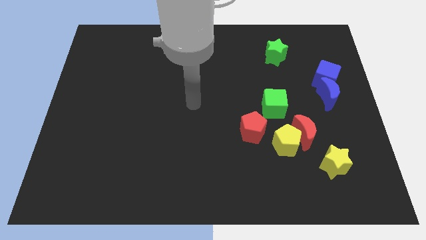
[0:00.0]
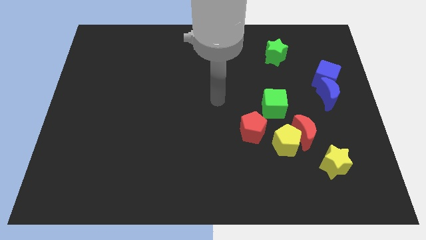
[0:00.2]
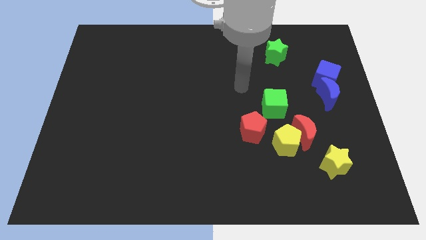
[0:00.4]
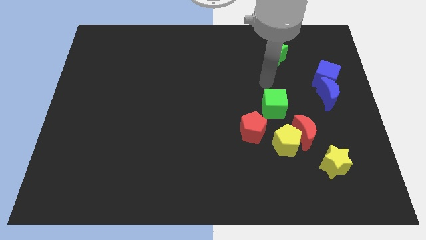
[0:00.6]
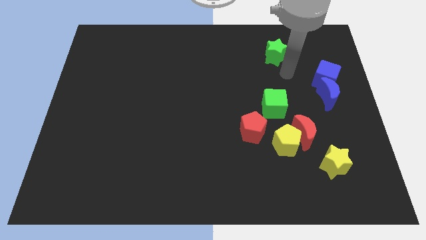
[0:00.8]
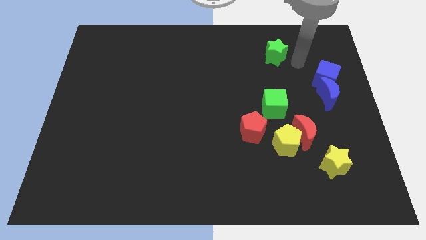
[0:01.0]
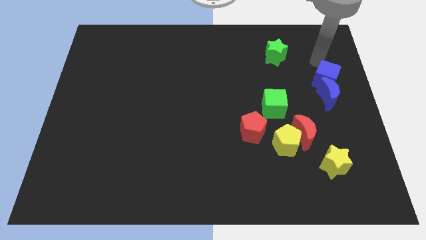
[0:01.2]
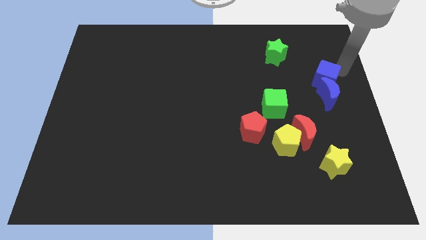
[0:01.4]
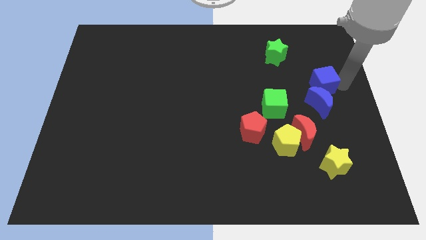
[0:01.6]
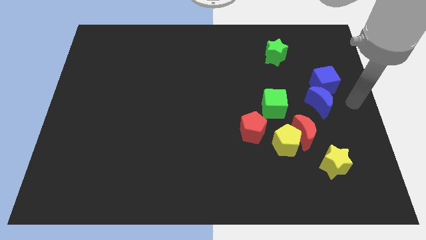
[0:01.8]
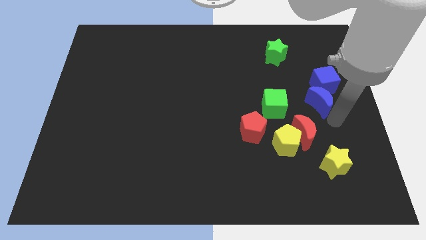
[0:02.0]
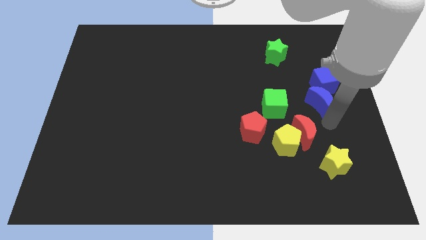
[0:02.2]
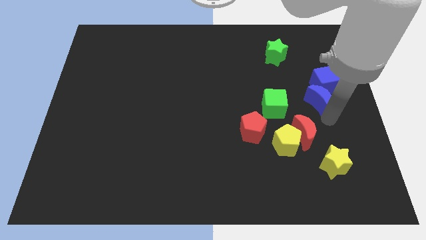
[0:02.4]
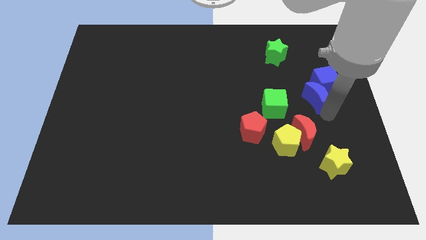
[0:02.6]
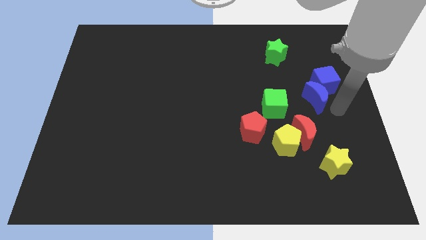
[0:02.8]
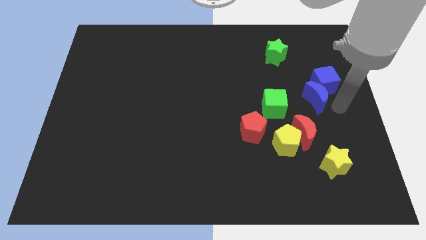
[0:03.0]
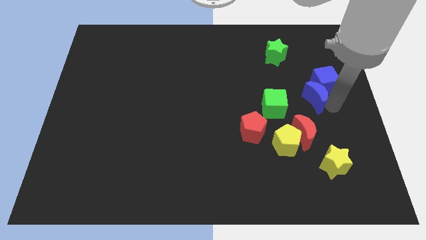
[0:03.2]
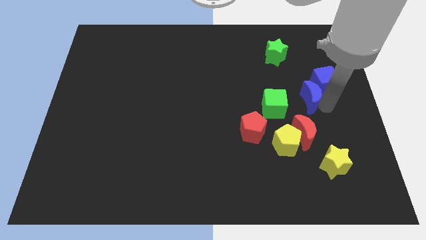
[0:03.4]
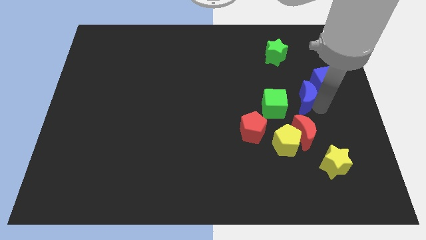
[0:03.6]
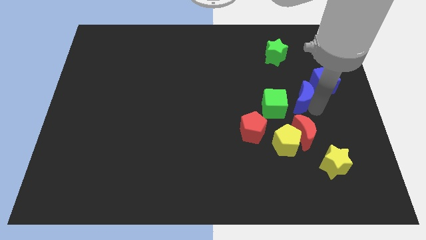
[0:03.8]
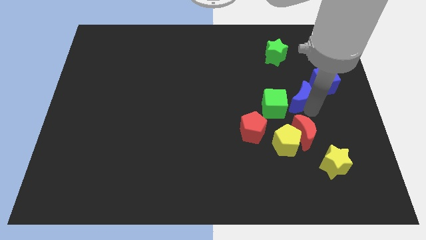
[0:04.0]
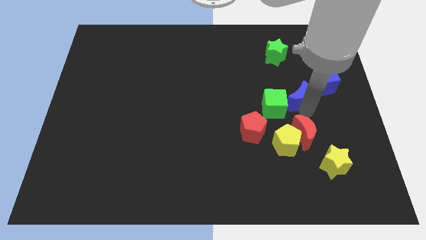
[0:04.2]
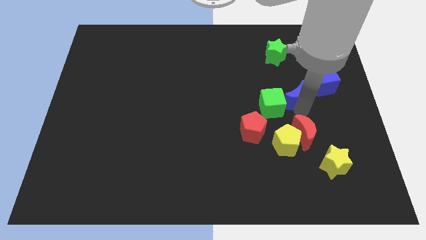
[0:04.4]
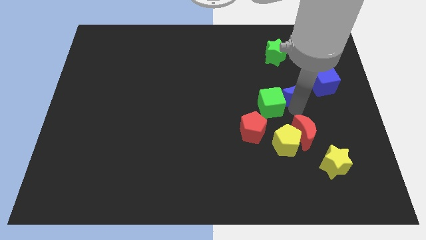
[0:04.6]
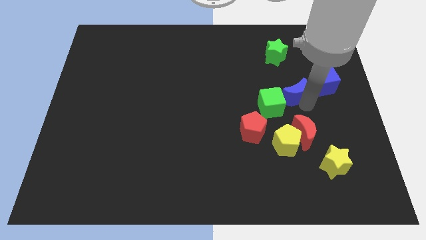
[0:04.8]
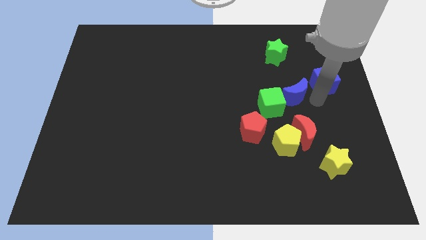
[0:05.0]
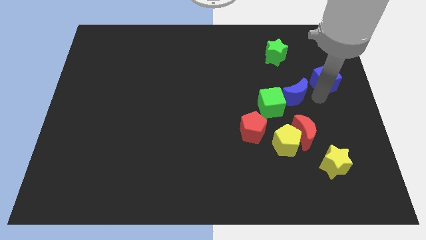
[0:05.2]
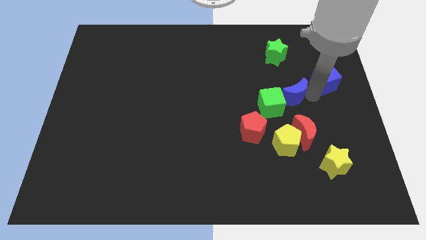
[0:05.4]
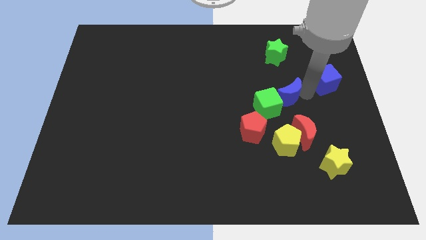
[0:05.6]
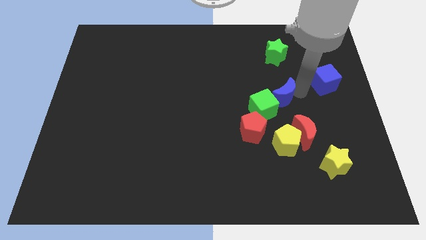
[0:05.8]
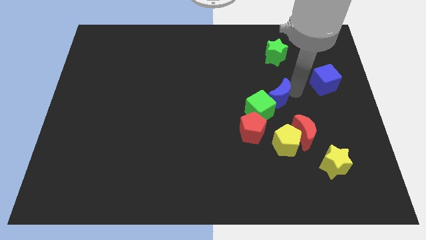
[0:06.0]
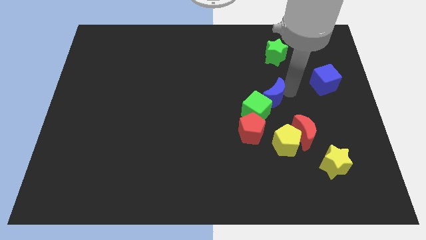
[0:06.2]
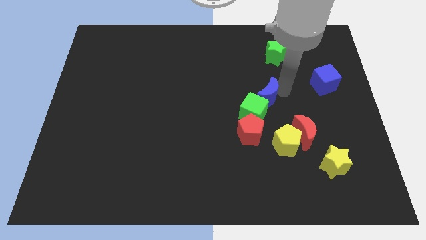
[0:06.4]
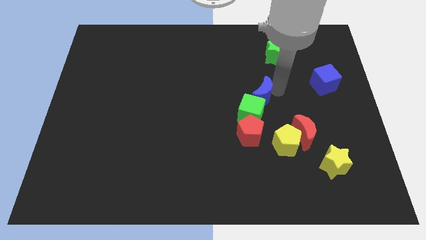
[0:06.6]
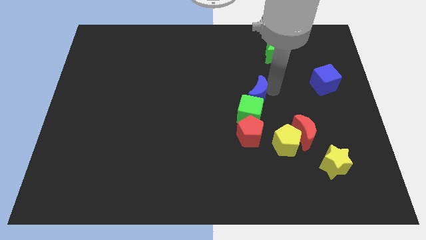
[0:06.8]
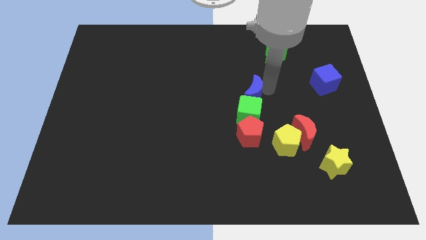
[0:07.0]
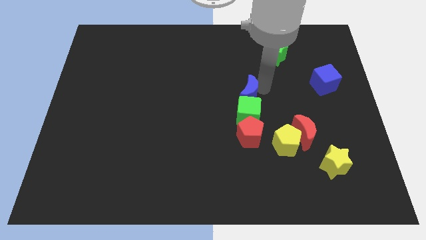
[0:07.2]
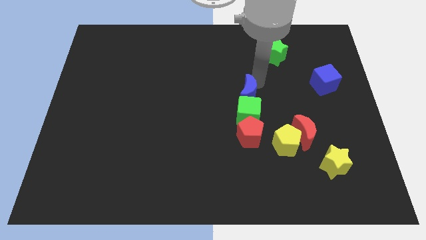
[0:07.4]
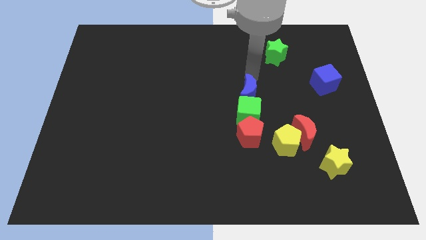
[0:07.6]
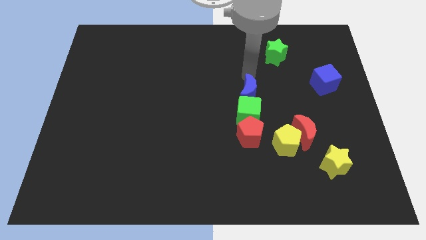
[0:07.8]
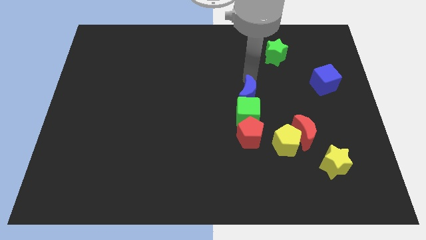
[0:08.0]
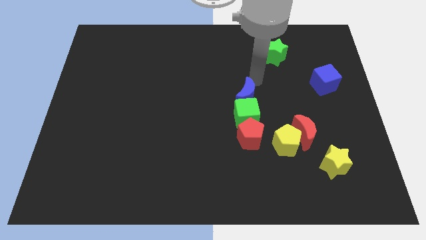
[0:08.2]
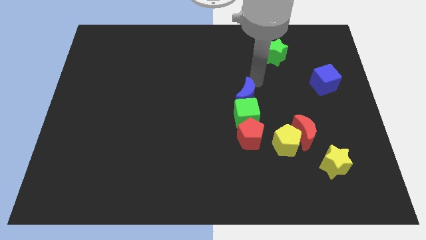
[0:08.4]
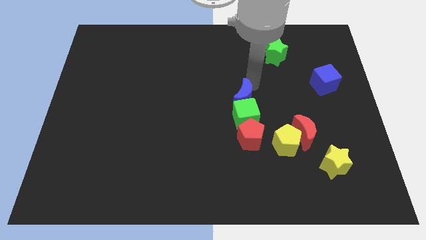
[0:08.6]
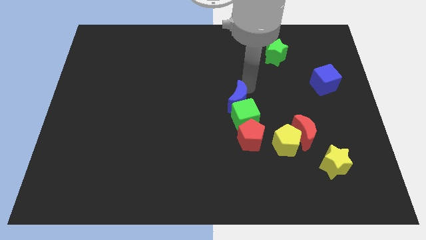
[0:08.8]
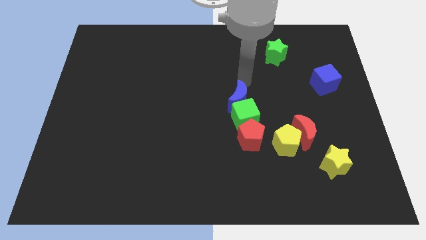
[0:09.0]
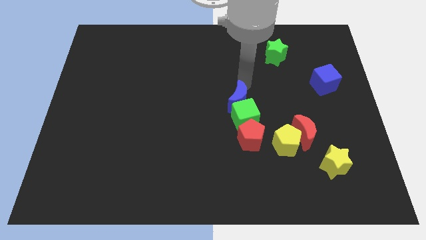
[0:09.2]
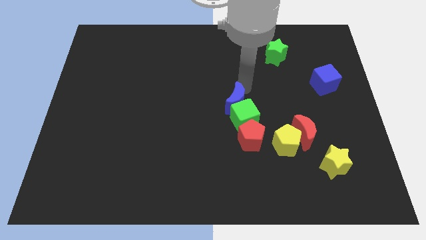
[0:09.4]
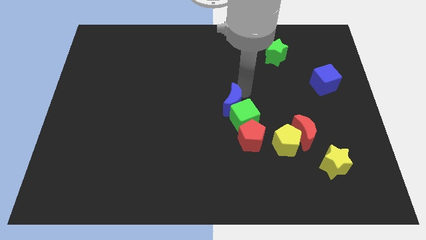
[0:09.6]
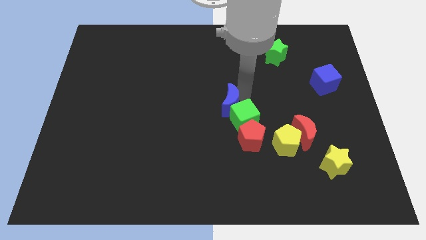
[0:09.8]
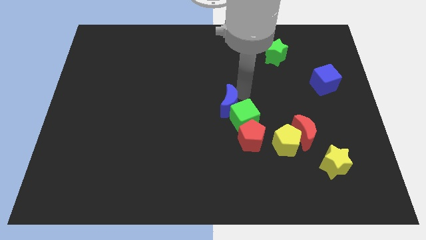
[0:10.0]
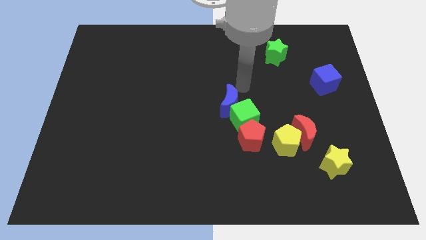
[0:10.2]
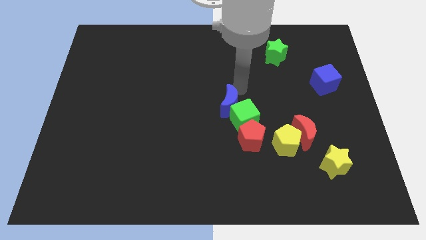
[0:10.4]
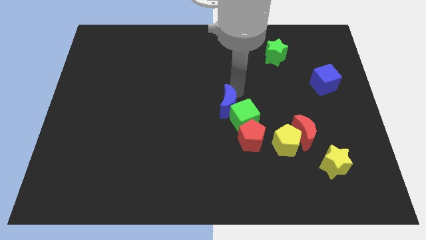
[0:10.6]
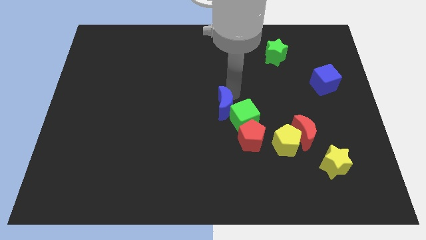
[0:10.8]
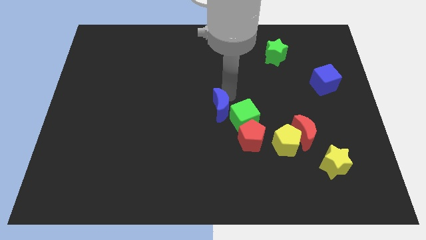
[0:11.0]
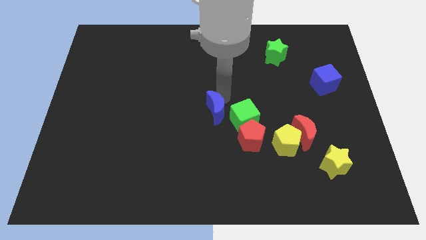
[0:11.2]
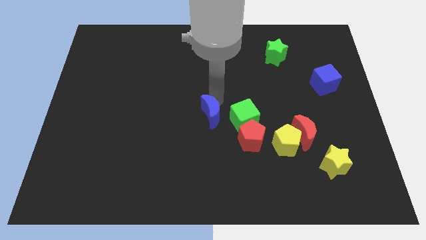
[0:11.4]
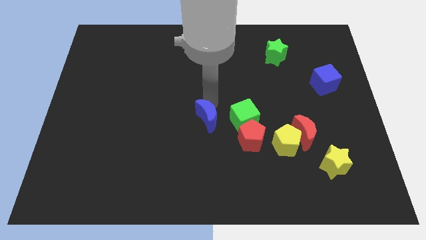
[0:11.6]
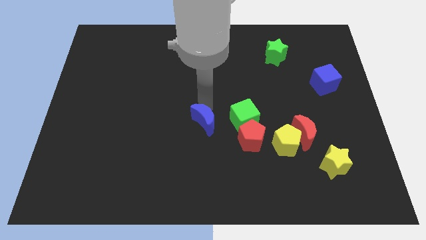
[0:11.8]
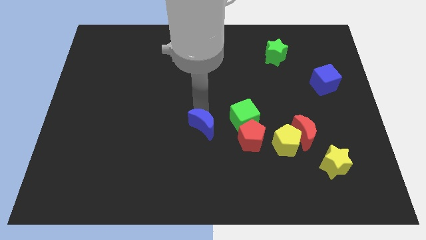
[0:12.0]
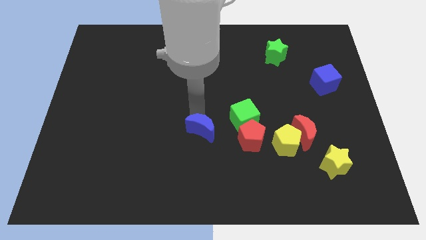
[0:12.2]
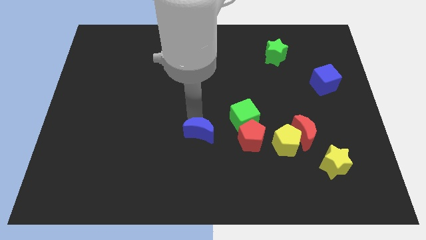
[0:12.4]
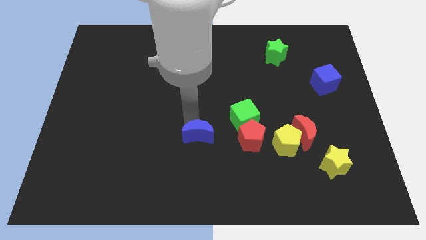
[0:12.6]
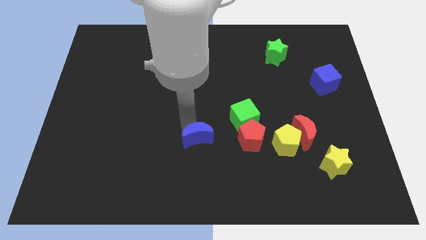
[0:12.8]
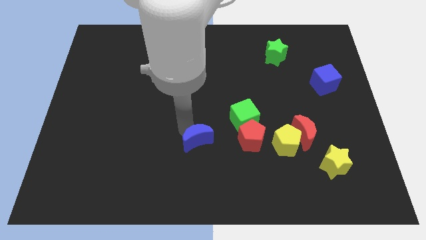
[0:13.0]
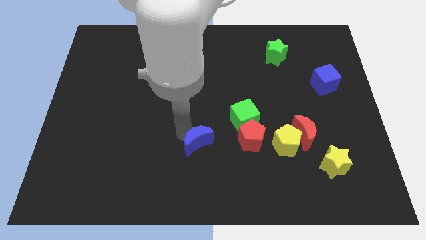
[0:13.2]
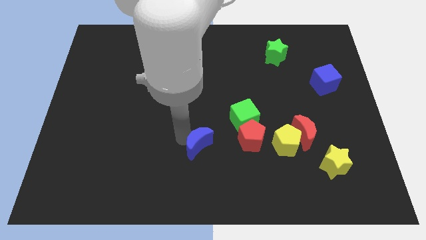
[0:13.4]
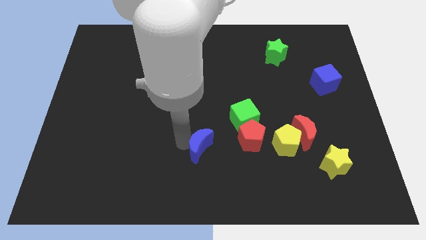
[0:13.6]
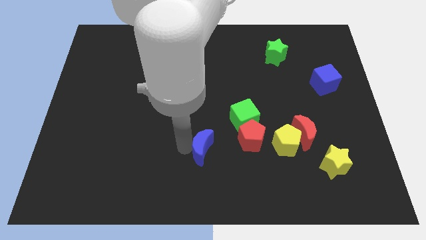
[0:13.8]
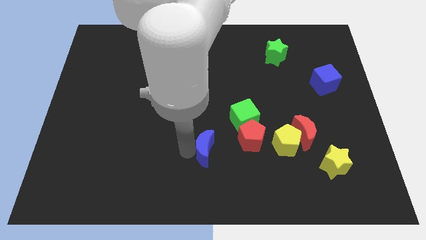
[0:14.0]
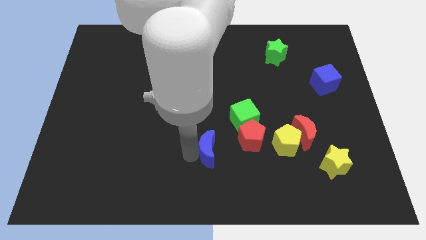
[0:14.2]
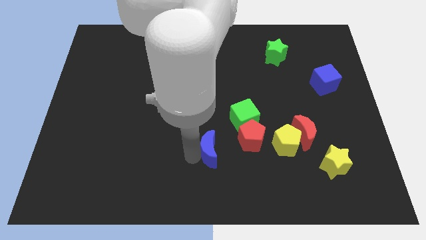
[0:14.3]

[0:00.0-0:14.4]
move the blue moon to the bottom

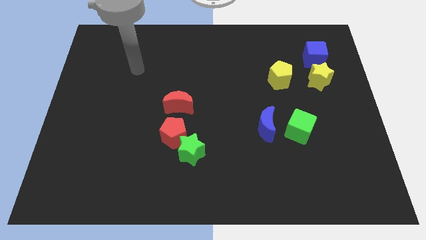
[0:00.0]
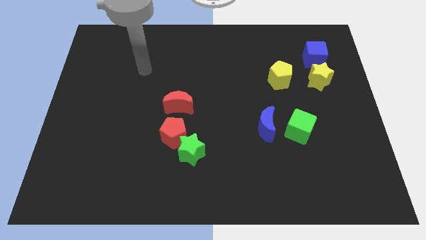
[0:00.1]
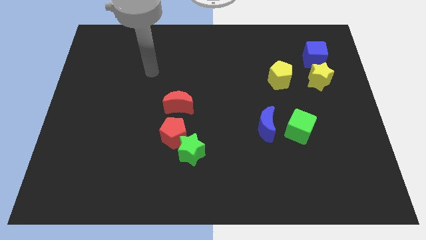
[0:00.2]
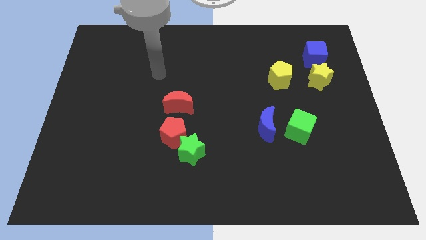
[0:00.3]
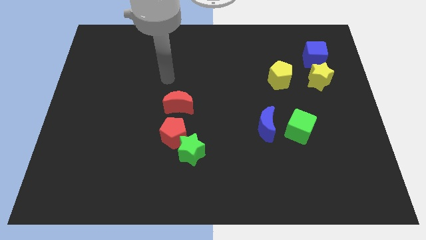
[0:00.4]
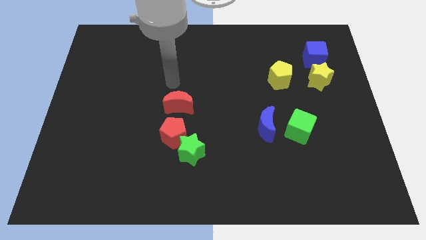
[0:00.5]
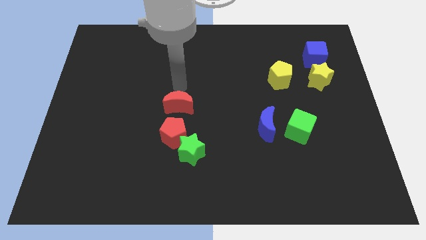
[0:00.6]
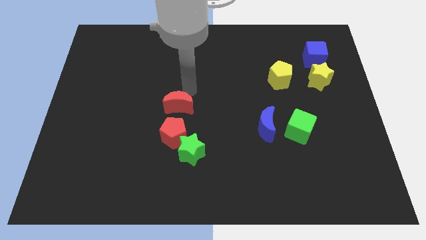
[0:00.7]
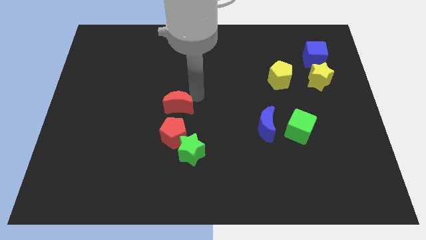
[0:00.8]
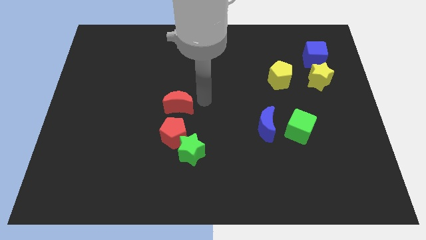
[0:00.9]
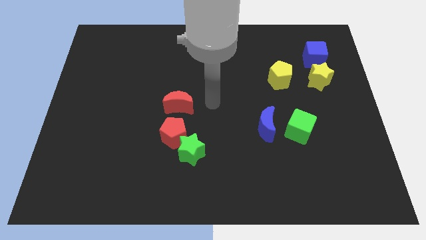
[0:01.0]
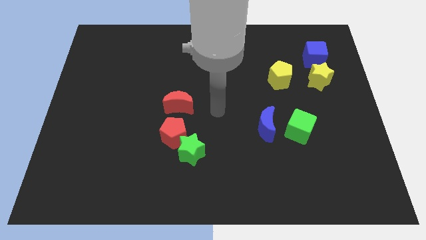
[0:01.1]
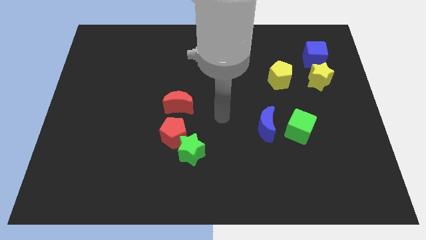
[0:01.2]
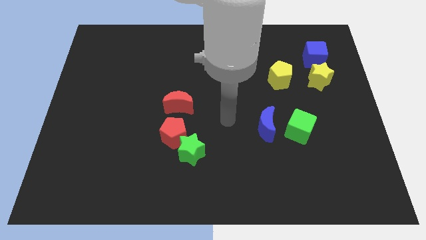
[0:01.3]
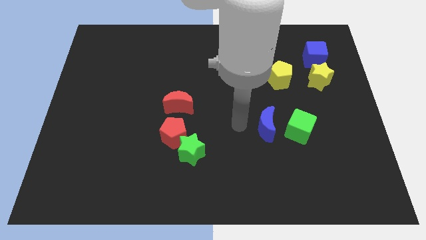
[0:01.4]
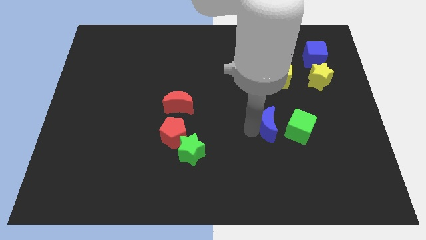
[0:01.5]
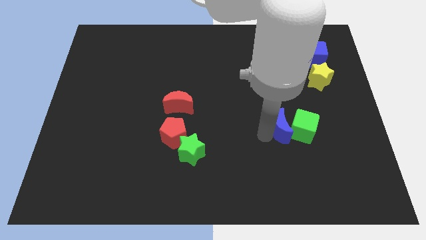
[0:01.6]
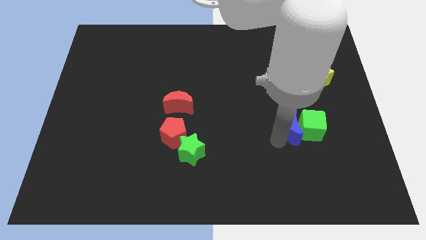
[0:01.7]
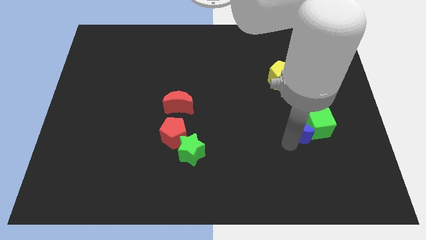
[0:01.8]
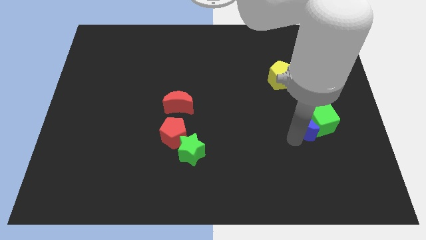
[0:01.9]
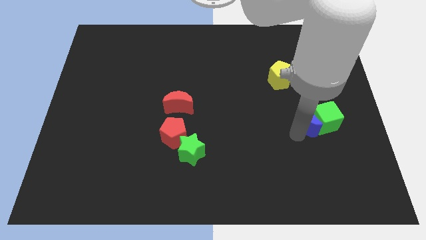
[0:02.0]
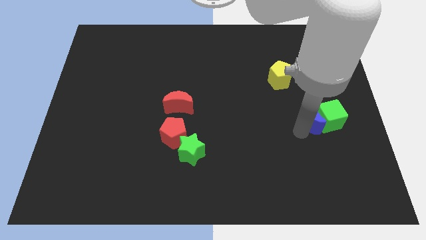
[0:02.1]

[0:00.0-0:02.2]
push the green cube to the right side of the board
